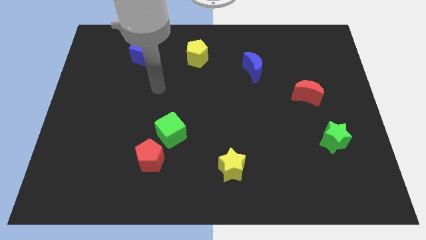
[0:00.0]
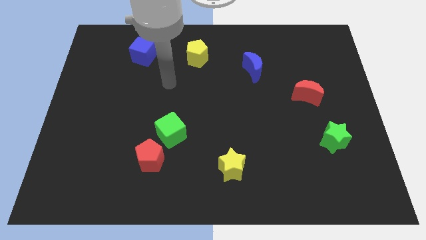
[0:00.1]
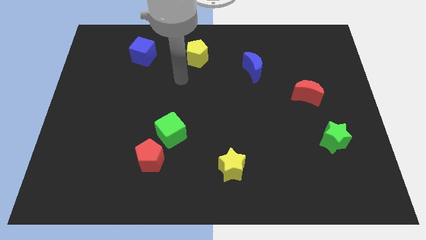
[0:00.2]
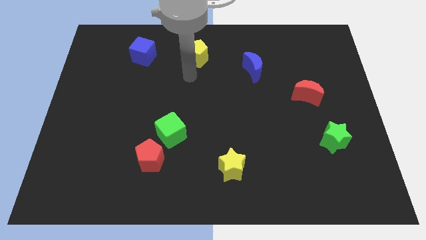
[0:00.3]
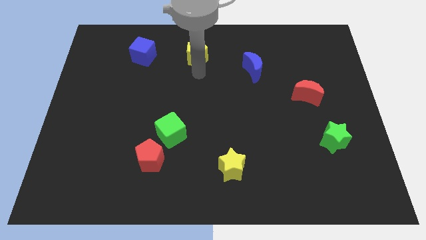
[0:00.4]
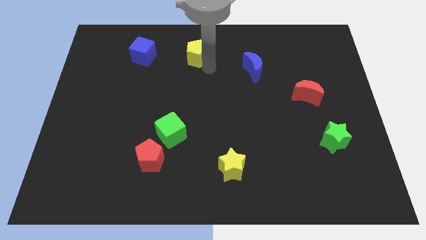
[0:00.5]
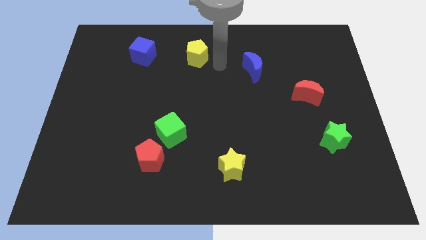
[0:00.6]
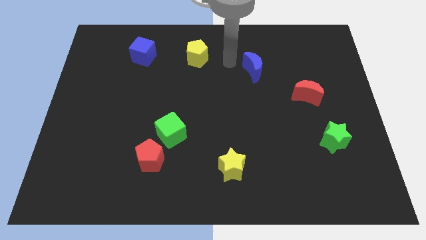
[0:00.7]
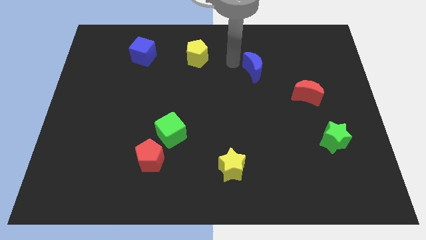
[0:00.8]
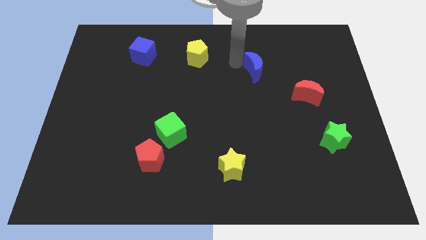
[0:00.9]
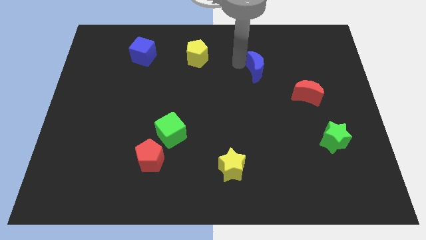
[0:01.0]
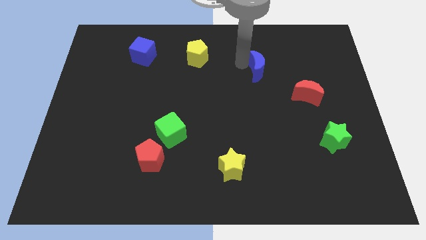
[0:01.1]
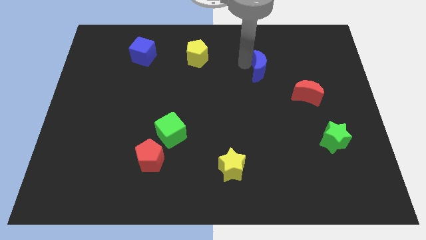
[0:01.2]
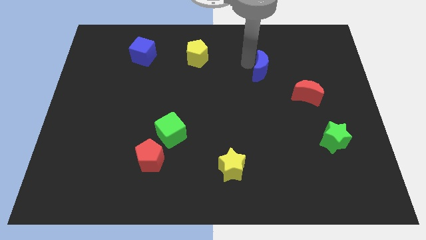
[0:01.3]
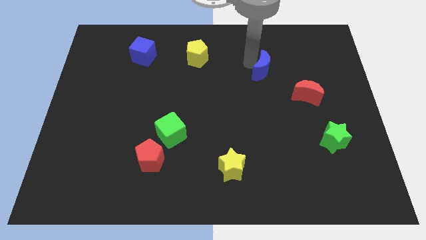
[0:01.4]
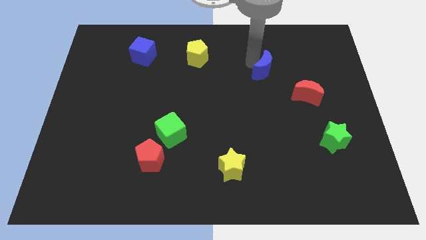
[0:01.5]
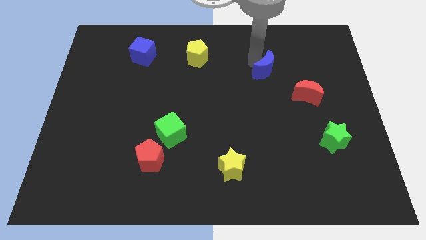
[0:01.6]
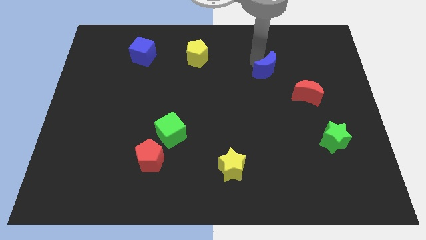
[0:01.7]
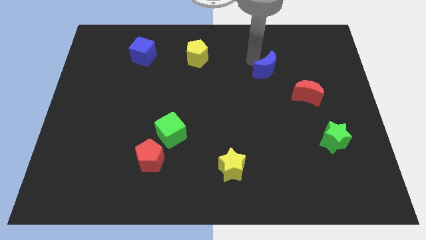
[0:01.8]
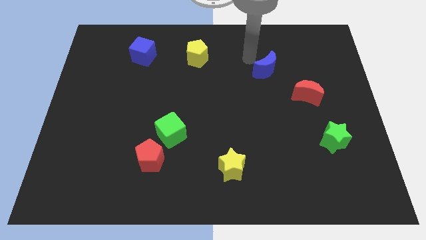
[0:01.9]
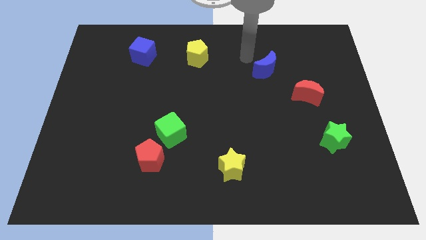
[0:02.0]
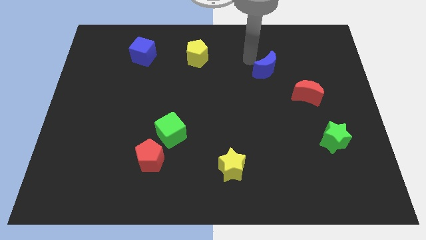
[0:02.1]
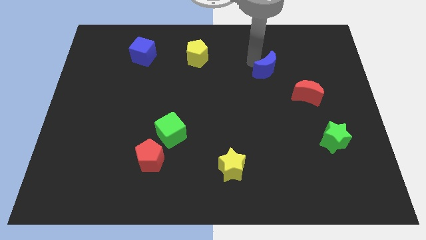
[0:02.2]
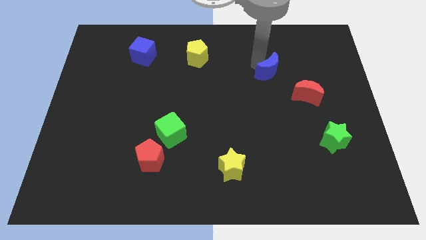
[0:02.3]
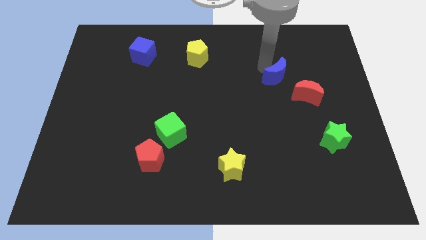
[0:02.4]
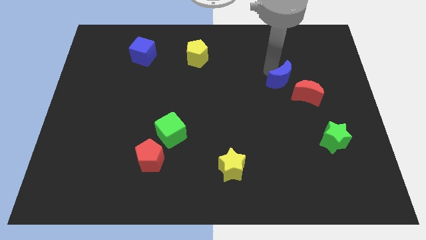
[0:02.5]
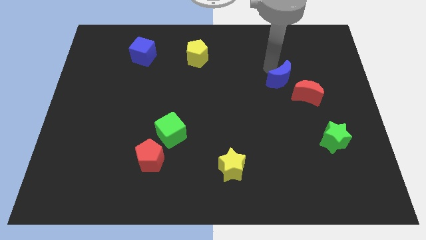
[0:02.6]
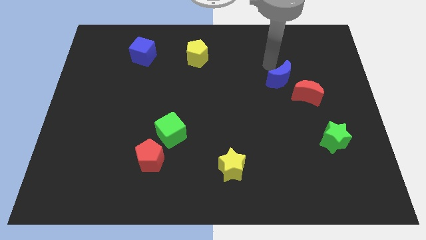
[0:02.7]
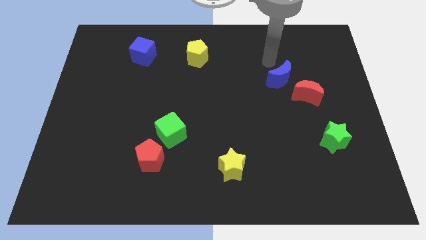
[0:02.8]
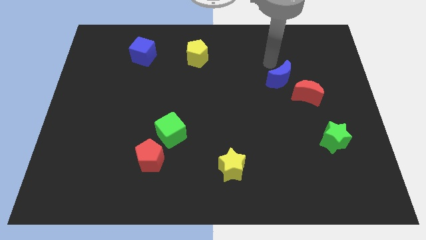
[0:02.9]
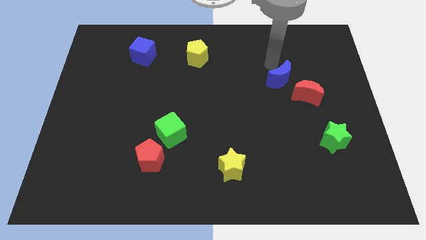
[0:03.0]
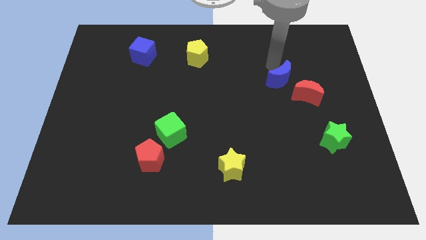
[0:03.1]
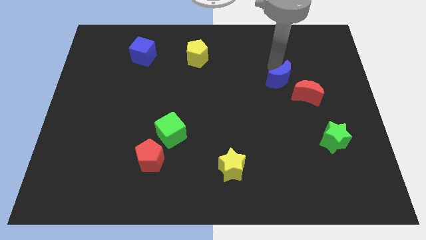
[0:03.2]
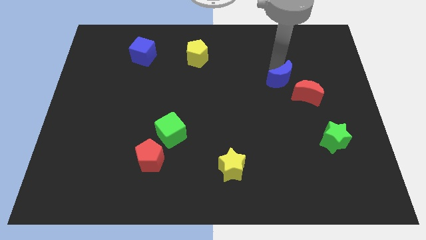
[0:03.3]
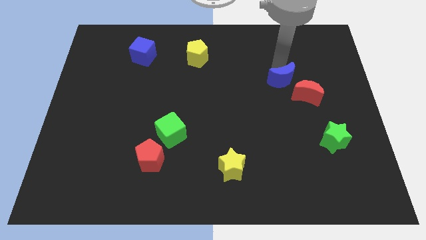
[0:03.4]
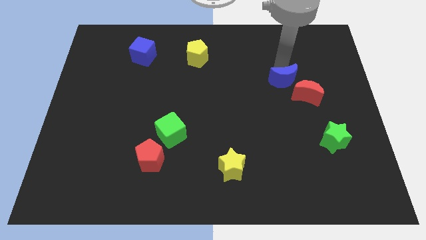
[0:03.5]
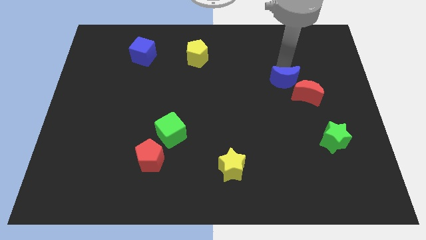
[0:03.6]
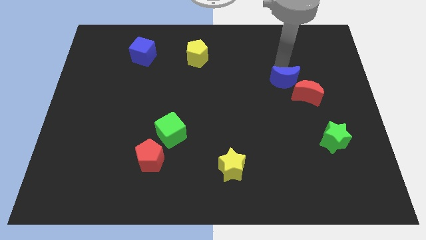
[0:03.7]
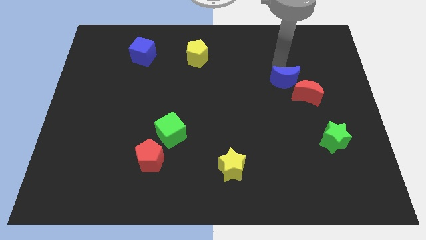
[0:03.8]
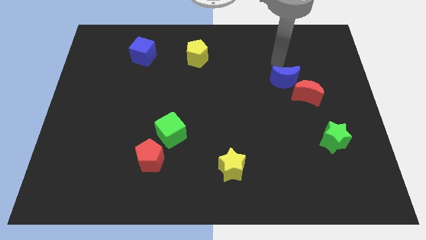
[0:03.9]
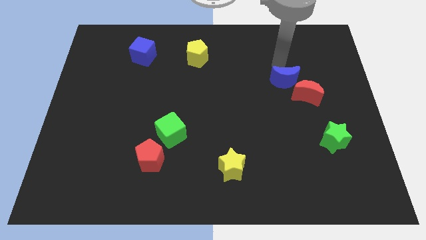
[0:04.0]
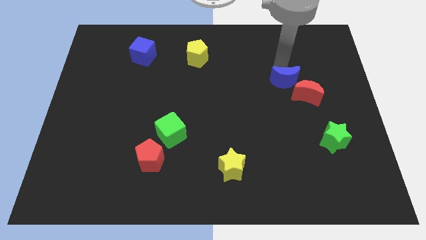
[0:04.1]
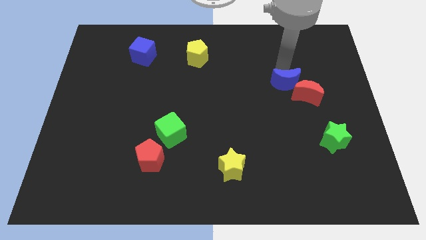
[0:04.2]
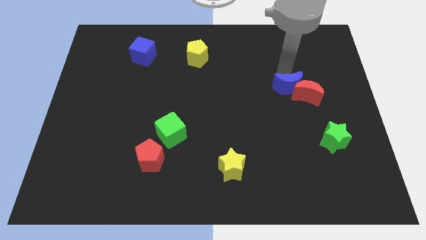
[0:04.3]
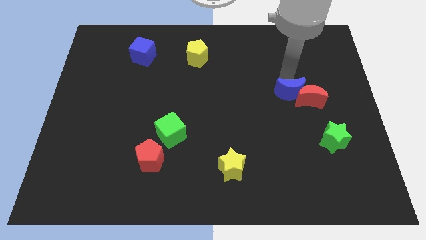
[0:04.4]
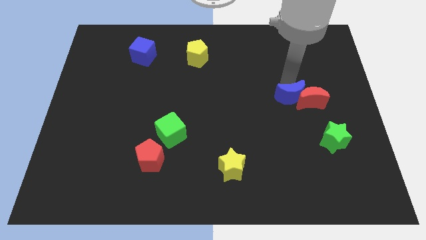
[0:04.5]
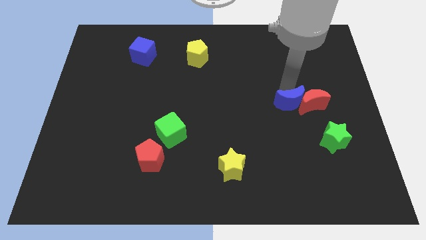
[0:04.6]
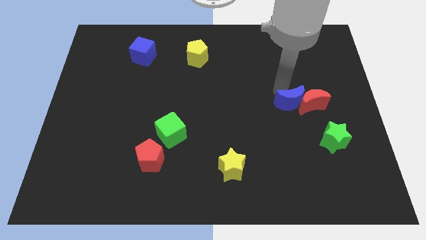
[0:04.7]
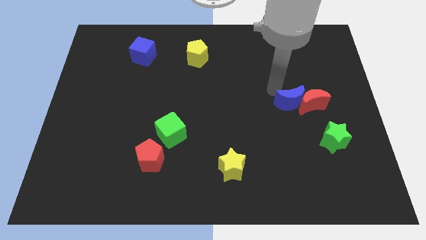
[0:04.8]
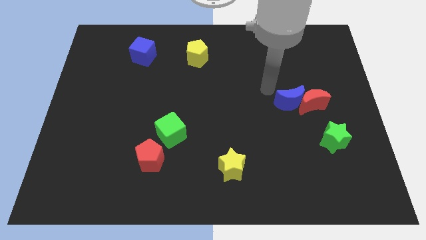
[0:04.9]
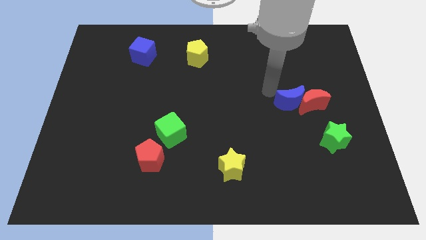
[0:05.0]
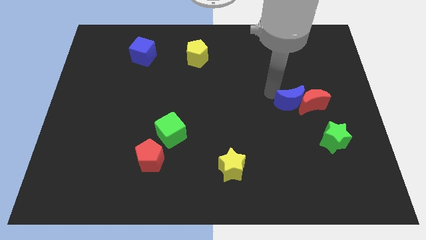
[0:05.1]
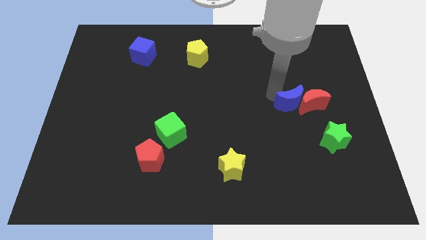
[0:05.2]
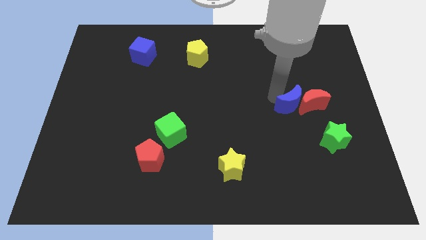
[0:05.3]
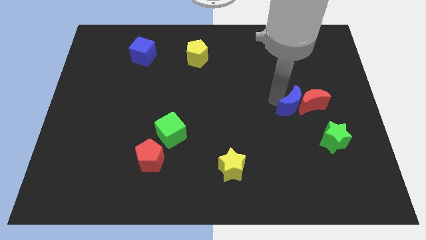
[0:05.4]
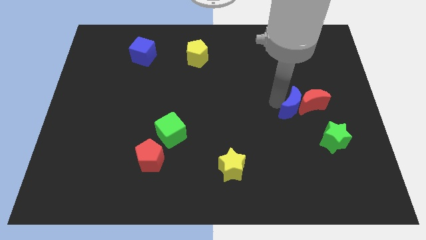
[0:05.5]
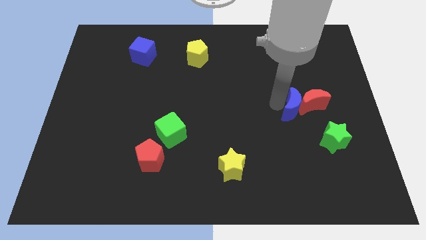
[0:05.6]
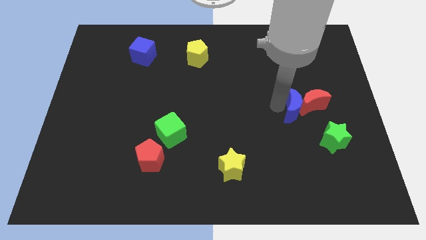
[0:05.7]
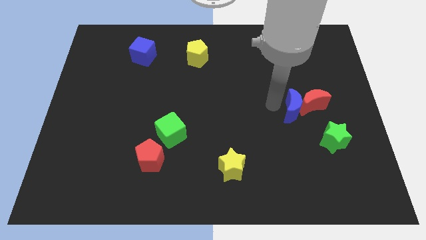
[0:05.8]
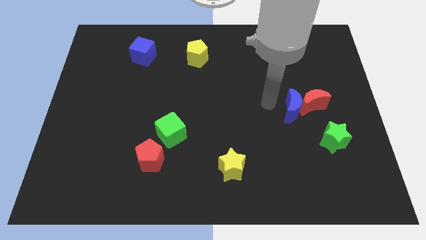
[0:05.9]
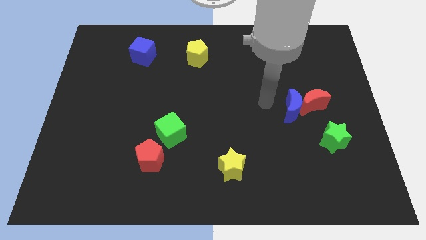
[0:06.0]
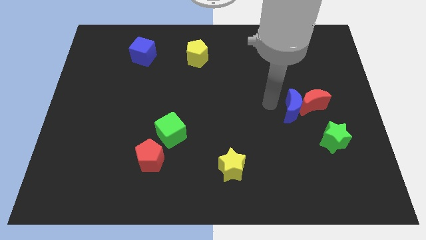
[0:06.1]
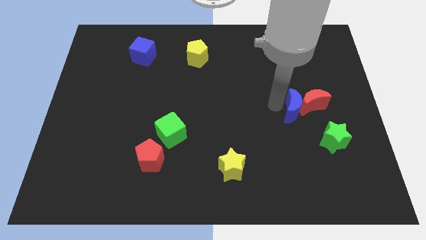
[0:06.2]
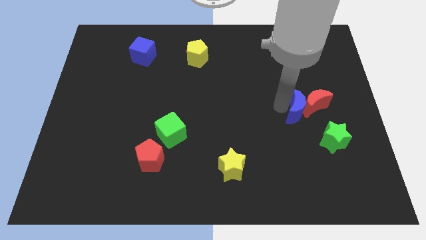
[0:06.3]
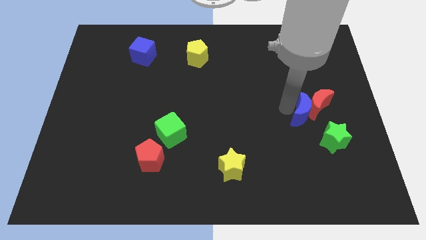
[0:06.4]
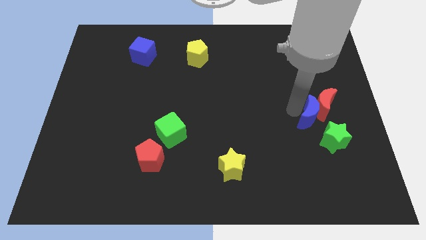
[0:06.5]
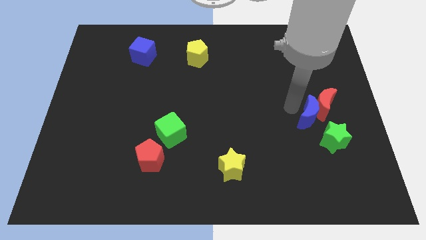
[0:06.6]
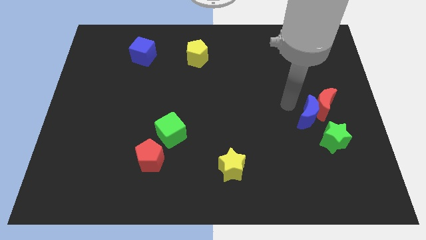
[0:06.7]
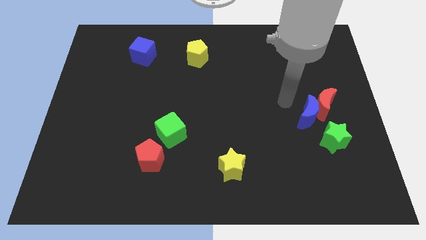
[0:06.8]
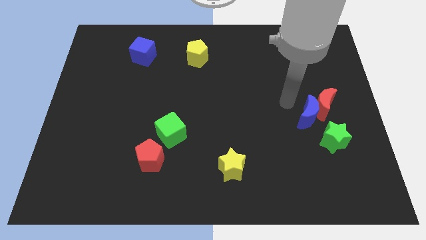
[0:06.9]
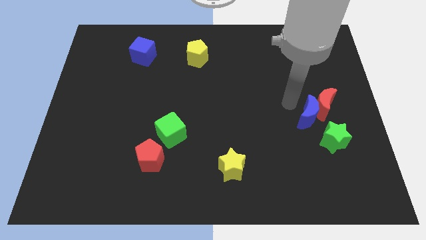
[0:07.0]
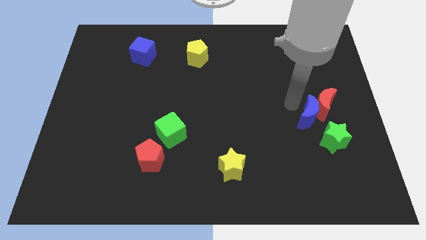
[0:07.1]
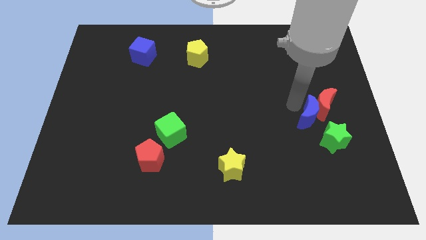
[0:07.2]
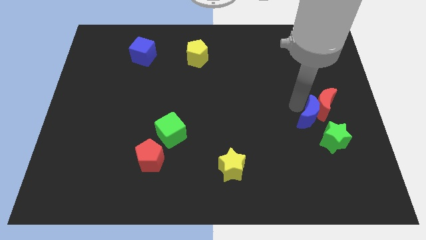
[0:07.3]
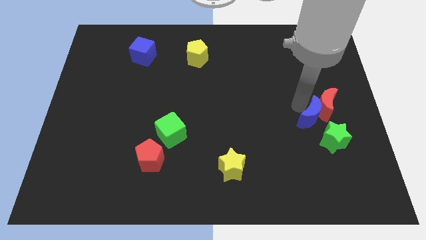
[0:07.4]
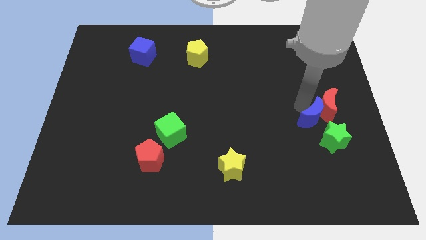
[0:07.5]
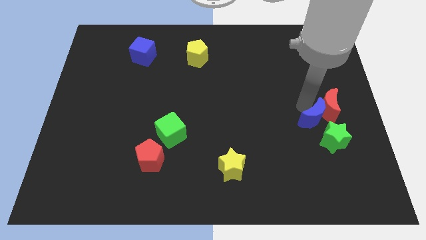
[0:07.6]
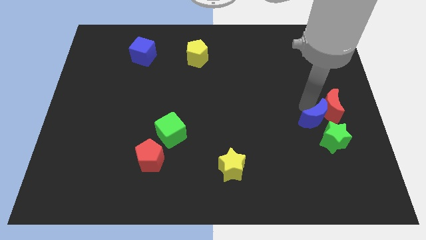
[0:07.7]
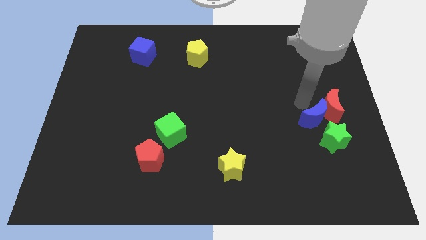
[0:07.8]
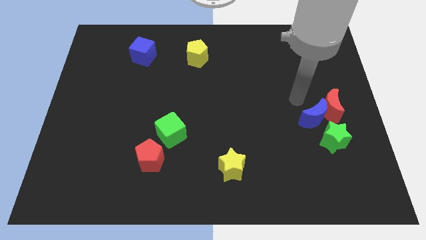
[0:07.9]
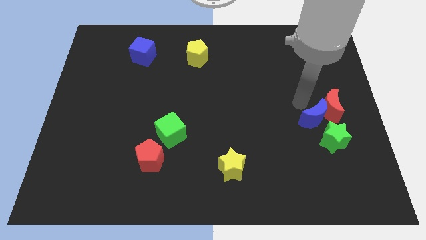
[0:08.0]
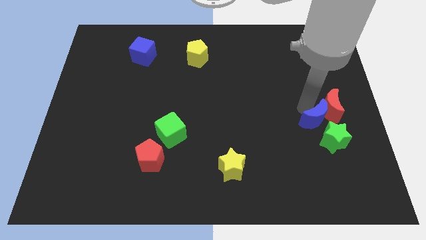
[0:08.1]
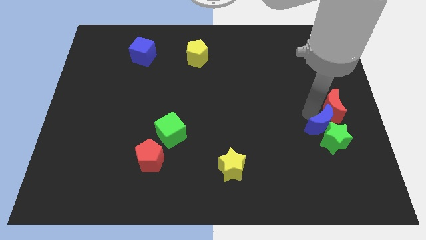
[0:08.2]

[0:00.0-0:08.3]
slide the blue moon towards the green star
